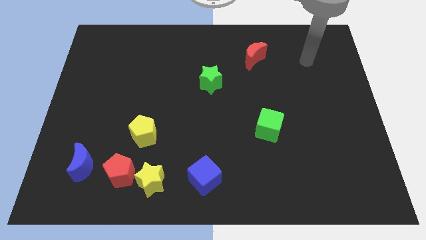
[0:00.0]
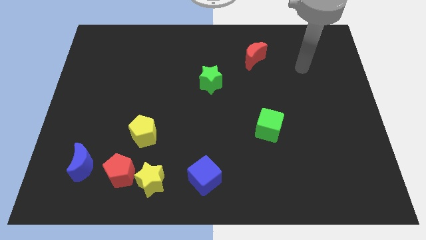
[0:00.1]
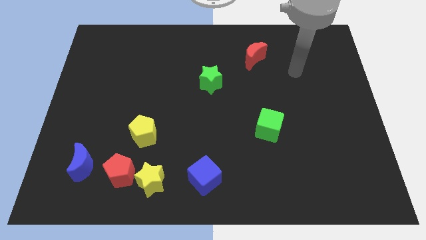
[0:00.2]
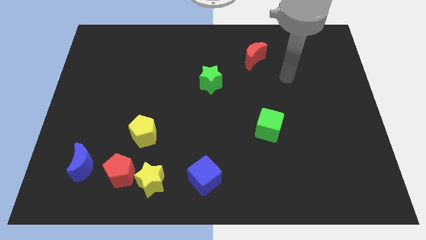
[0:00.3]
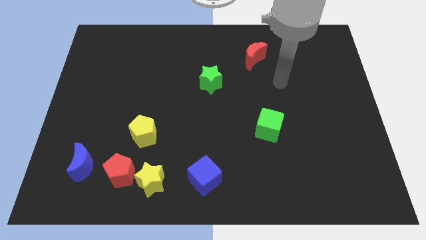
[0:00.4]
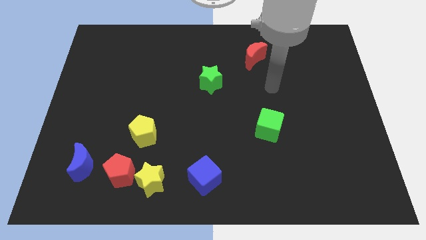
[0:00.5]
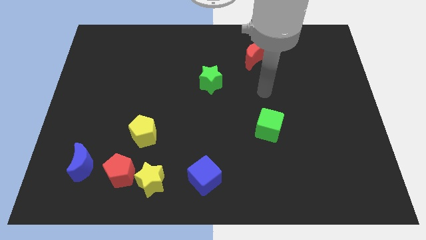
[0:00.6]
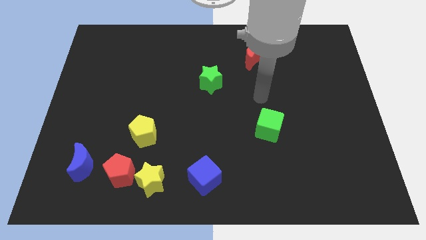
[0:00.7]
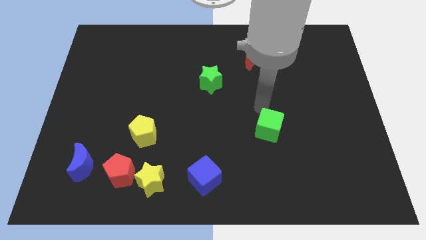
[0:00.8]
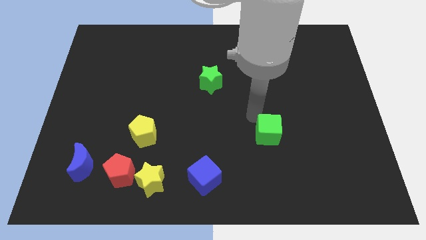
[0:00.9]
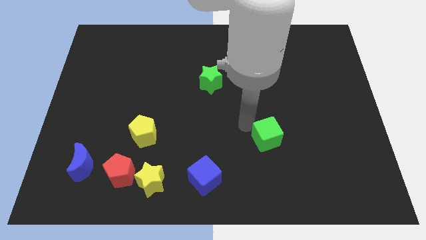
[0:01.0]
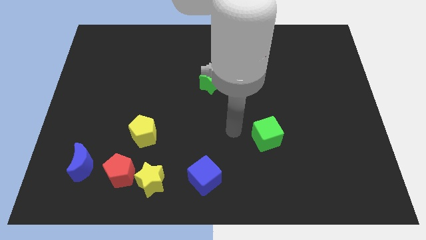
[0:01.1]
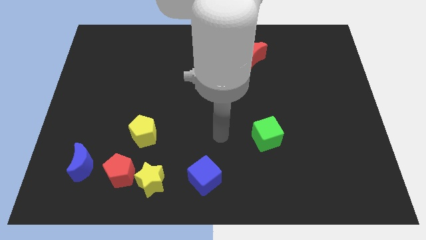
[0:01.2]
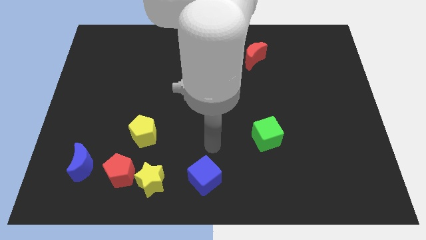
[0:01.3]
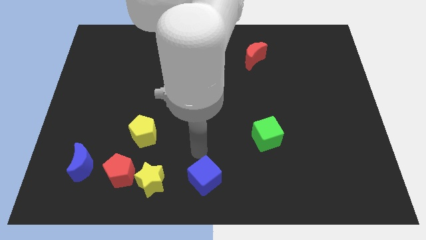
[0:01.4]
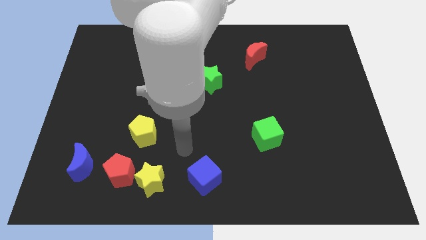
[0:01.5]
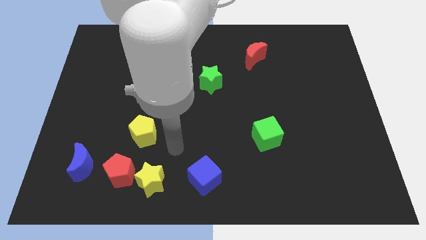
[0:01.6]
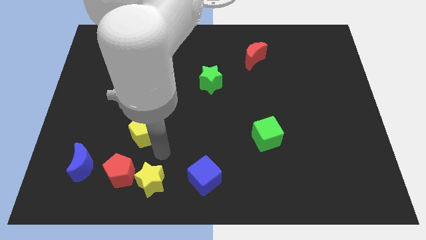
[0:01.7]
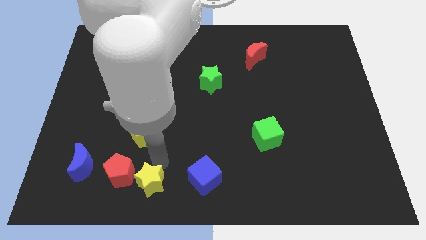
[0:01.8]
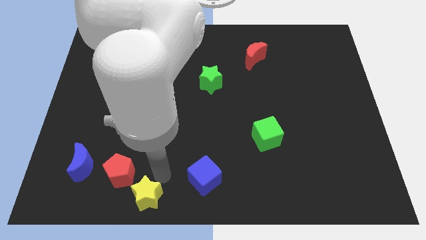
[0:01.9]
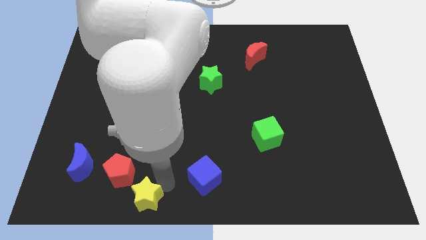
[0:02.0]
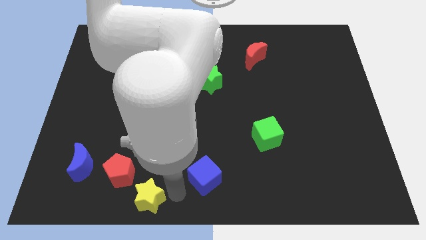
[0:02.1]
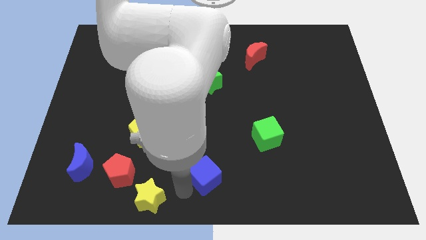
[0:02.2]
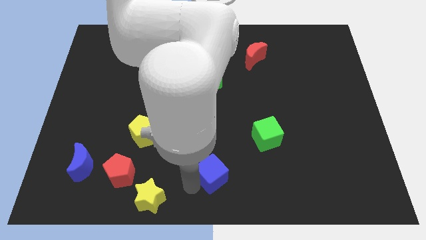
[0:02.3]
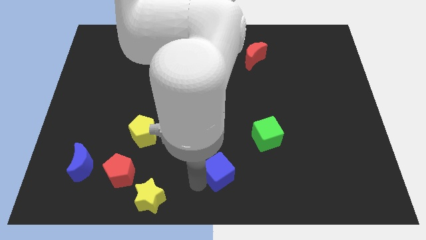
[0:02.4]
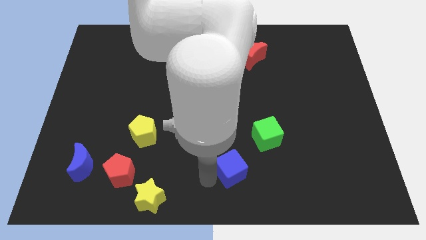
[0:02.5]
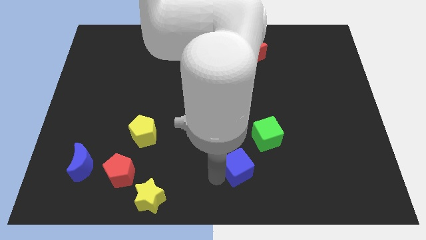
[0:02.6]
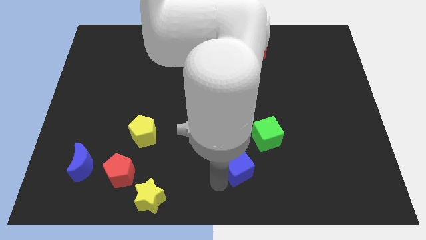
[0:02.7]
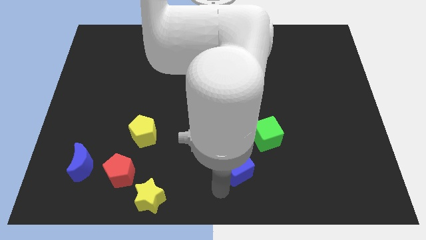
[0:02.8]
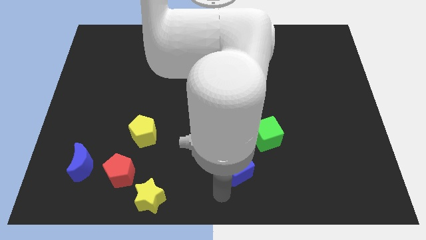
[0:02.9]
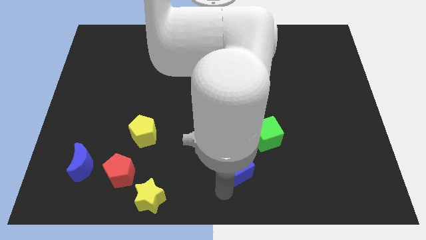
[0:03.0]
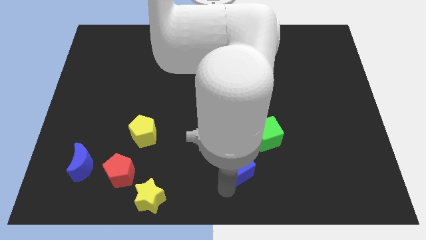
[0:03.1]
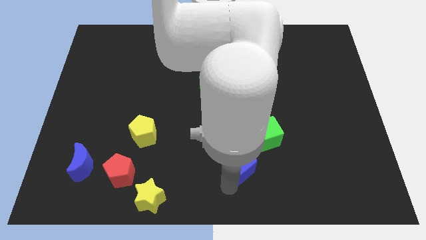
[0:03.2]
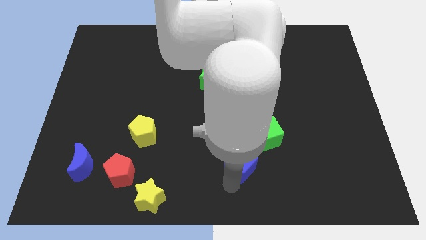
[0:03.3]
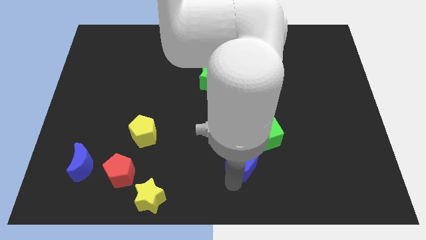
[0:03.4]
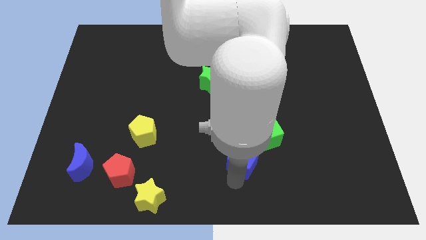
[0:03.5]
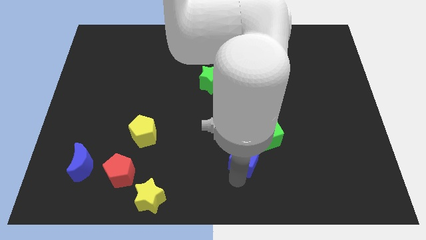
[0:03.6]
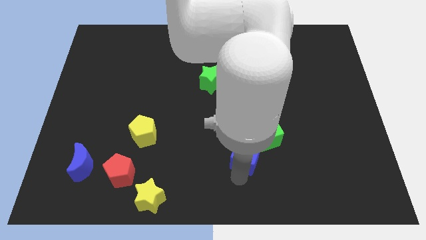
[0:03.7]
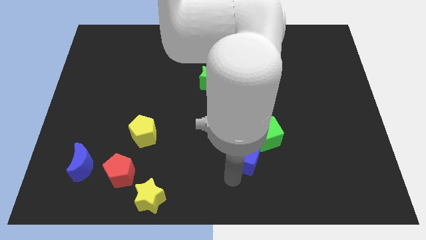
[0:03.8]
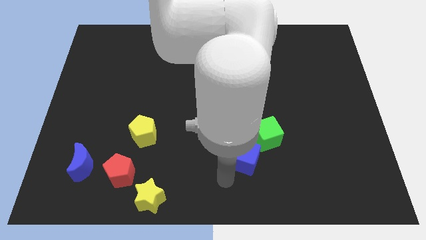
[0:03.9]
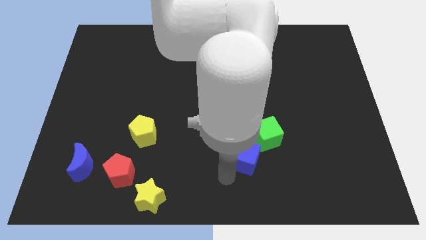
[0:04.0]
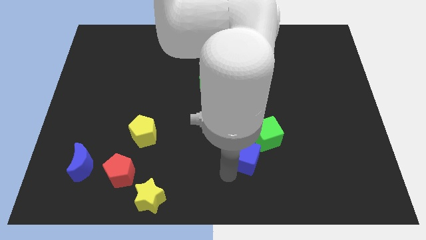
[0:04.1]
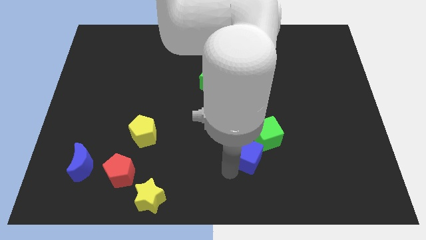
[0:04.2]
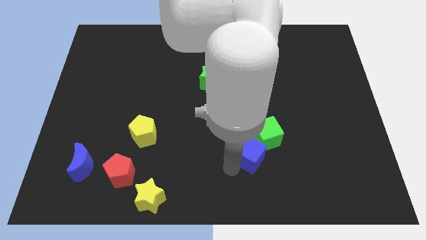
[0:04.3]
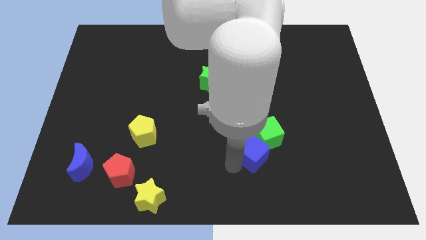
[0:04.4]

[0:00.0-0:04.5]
put the blue cube next to the green cube

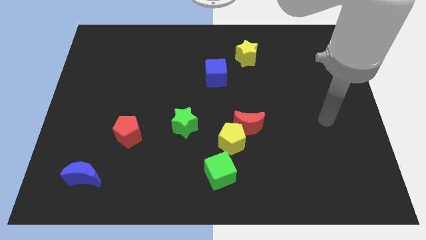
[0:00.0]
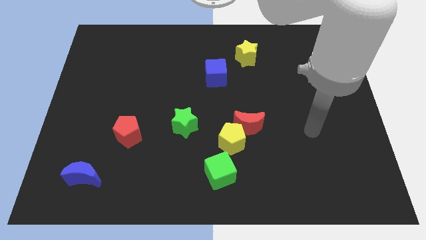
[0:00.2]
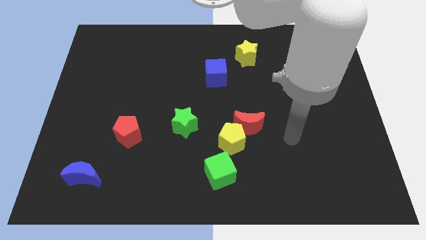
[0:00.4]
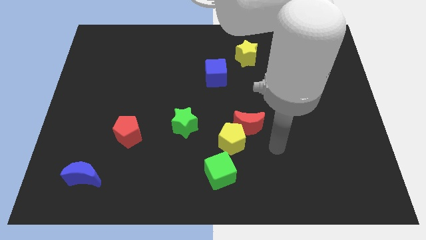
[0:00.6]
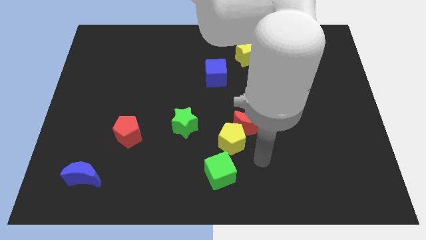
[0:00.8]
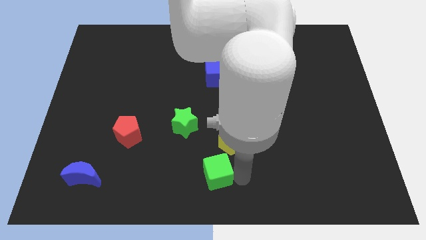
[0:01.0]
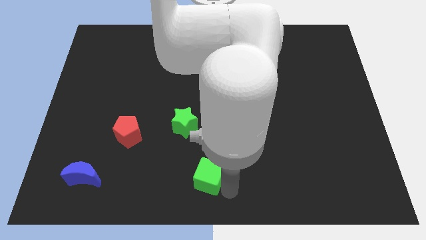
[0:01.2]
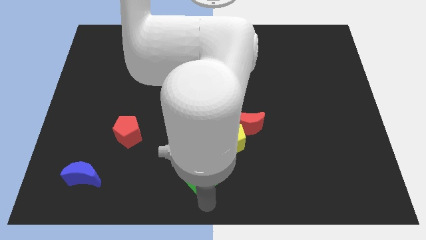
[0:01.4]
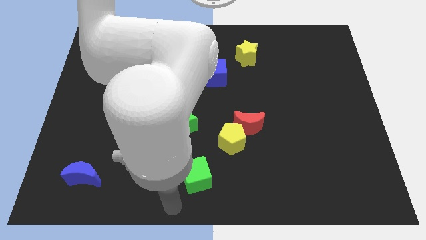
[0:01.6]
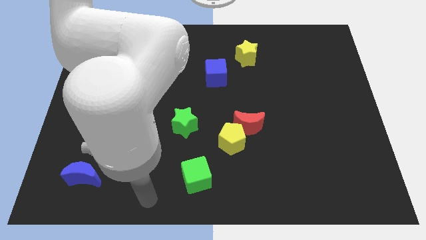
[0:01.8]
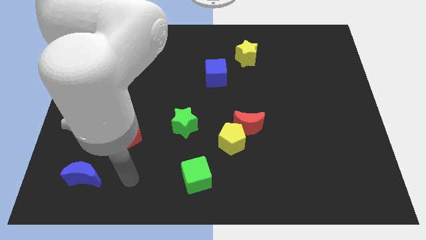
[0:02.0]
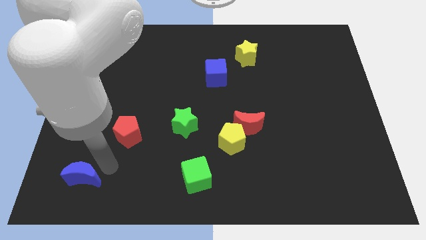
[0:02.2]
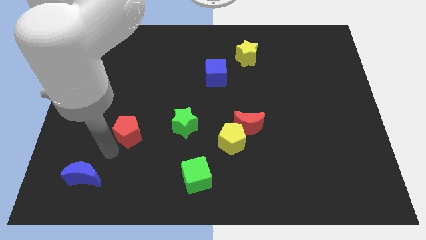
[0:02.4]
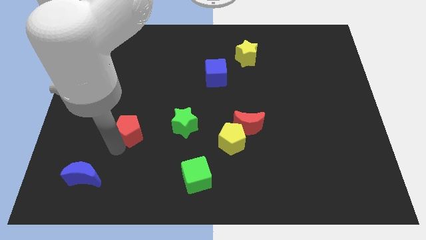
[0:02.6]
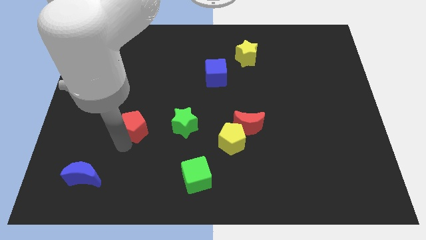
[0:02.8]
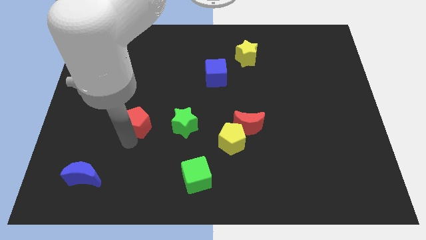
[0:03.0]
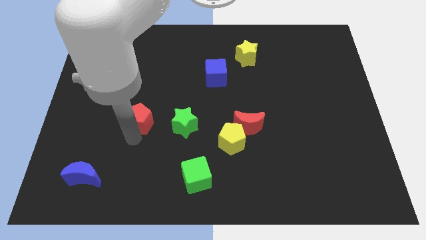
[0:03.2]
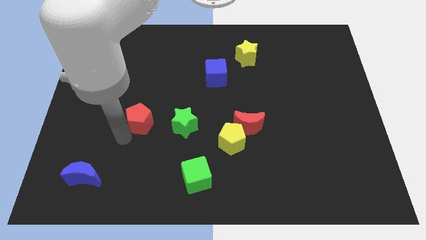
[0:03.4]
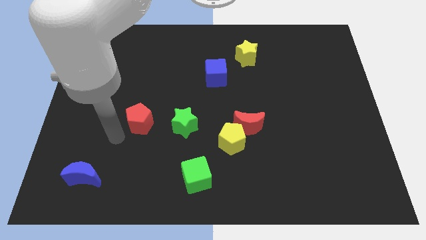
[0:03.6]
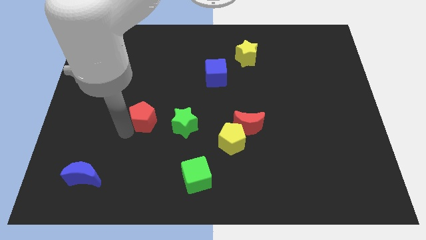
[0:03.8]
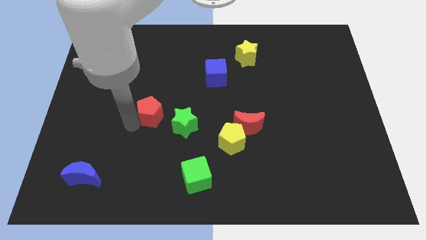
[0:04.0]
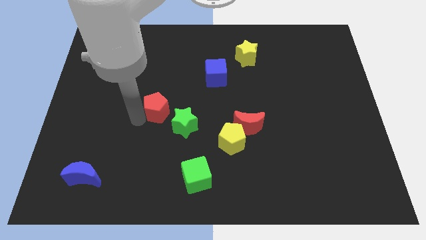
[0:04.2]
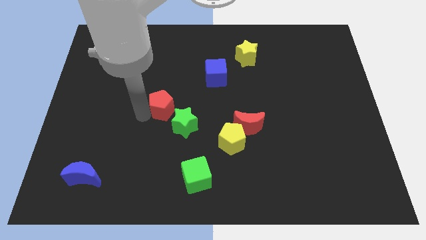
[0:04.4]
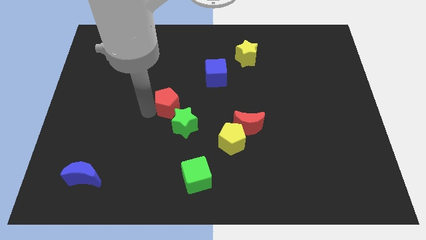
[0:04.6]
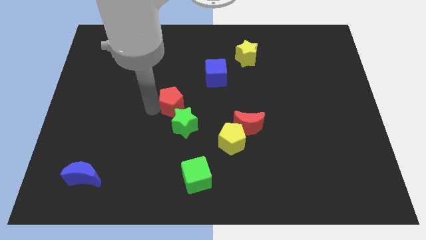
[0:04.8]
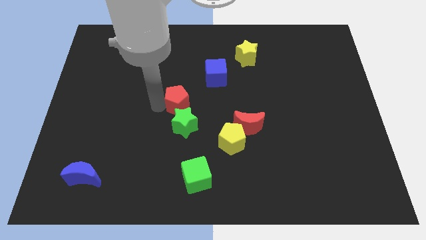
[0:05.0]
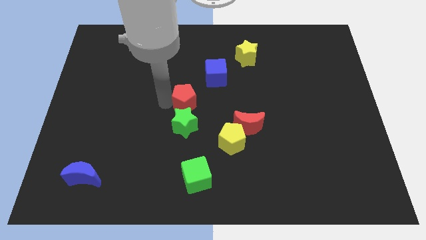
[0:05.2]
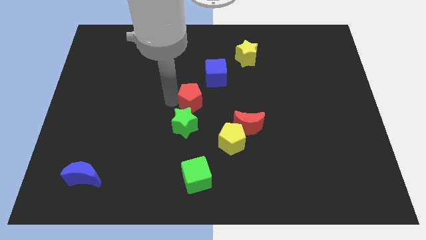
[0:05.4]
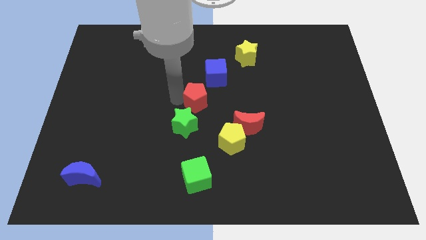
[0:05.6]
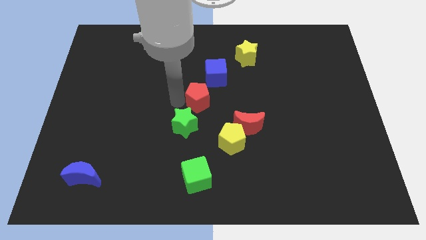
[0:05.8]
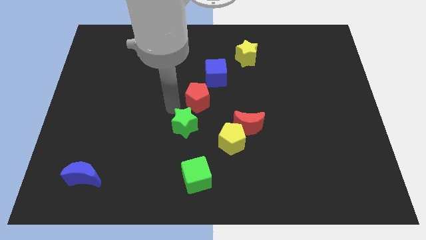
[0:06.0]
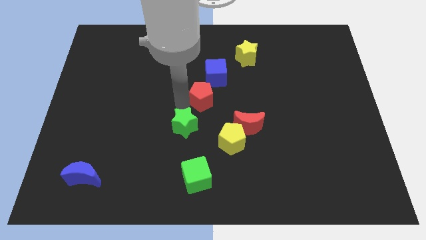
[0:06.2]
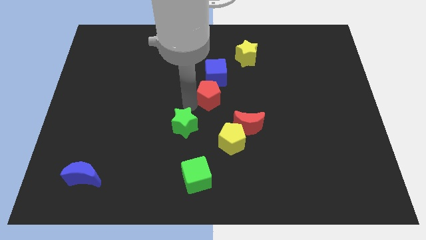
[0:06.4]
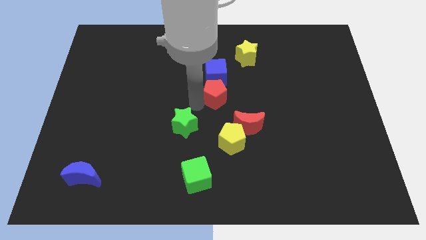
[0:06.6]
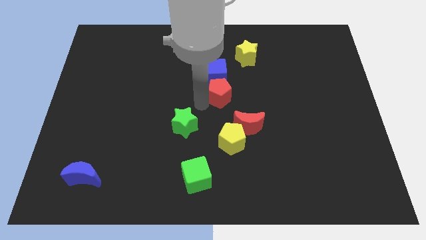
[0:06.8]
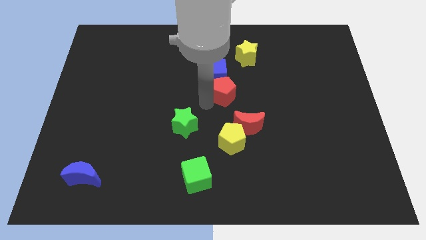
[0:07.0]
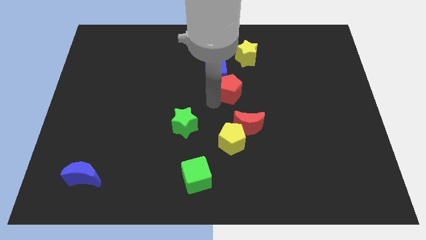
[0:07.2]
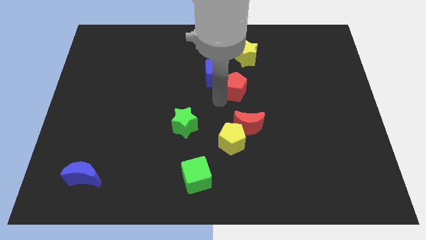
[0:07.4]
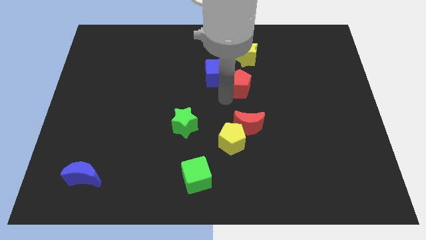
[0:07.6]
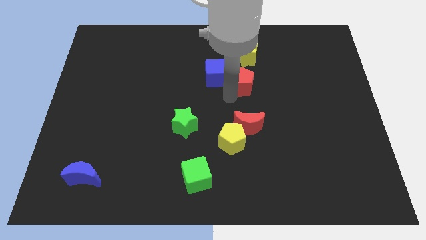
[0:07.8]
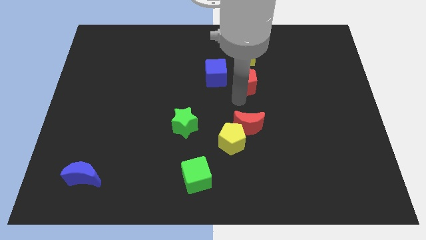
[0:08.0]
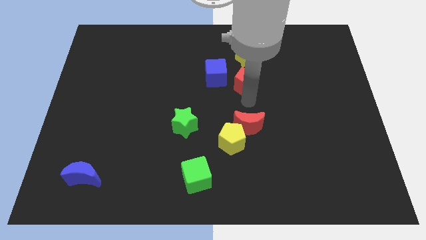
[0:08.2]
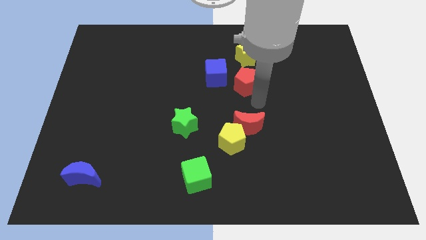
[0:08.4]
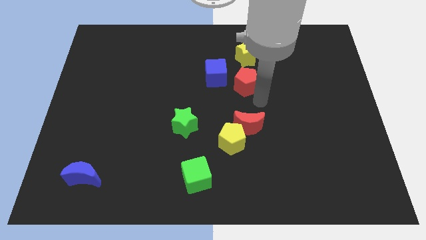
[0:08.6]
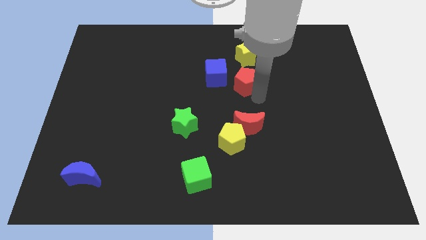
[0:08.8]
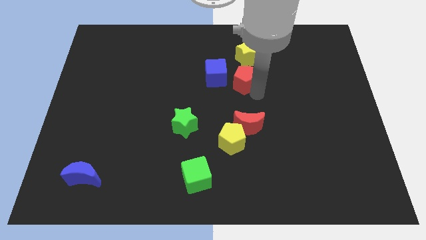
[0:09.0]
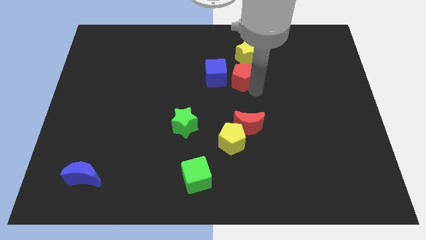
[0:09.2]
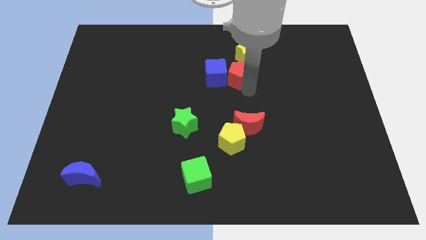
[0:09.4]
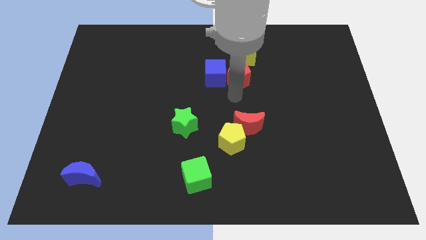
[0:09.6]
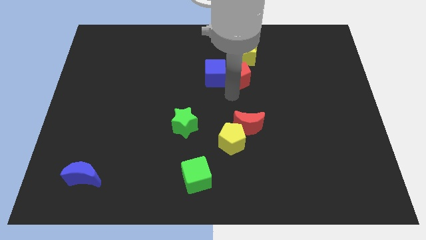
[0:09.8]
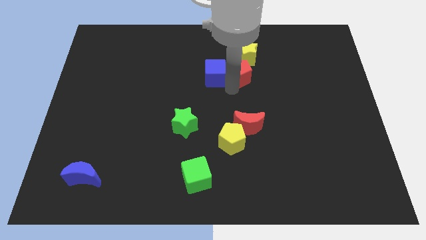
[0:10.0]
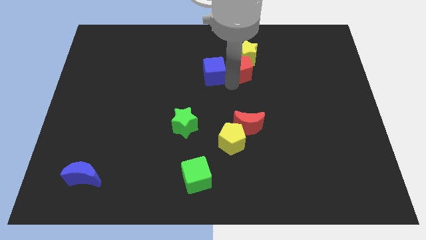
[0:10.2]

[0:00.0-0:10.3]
slide the red pentagon towards the yellow star
